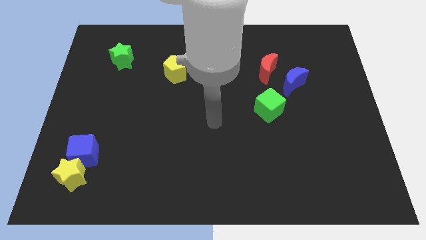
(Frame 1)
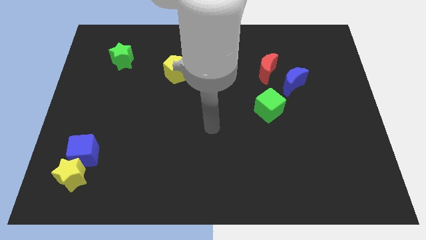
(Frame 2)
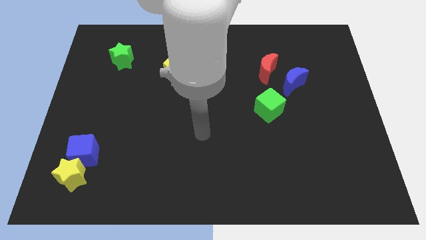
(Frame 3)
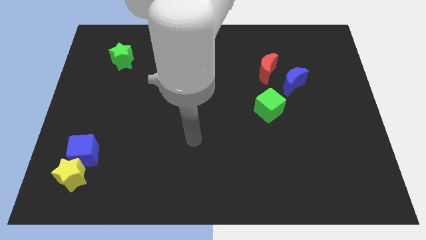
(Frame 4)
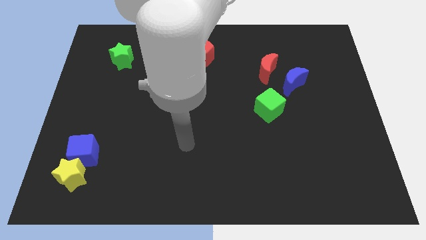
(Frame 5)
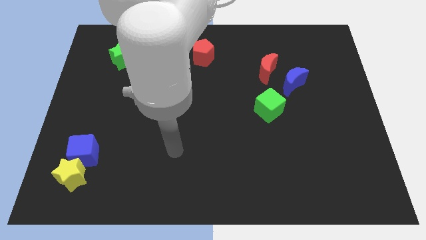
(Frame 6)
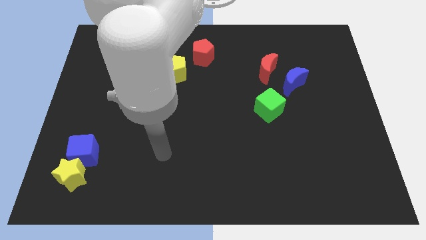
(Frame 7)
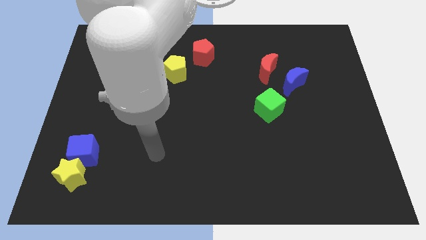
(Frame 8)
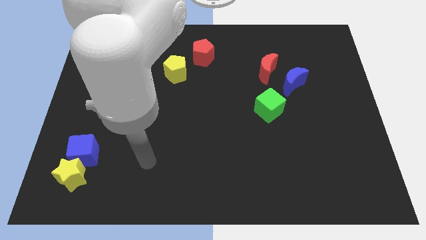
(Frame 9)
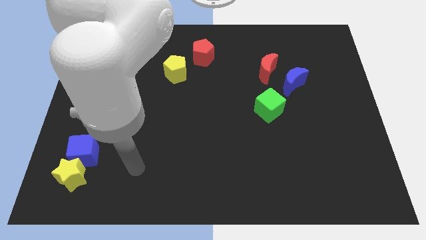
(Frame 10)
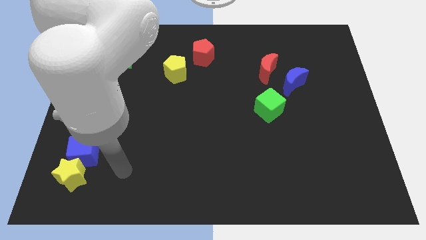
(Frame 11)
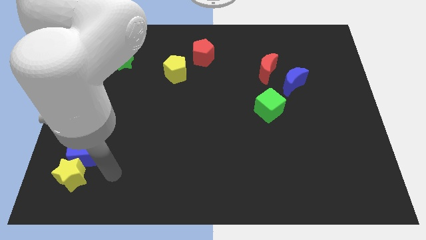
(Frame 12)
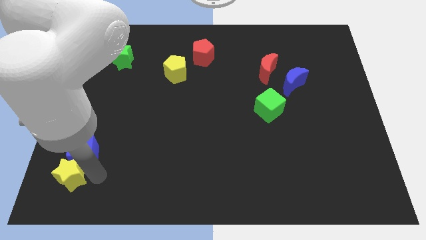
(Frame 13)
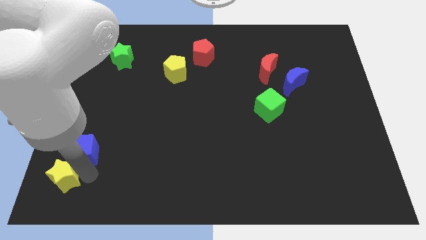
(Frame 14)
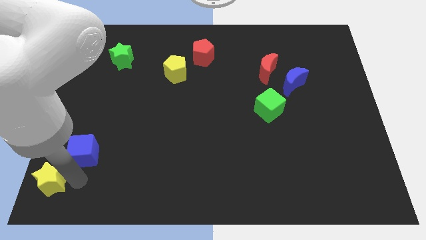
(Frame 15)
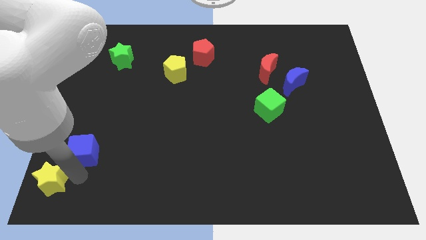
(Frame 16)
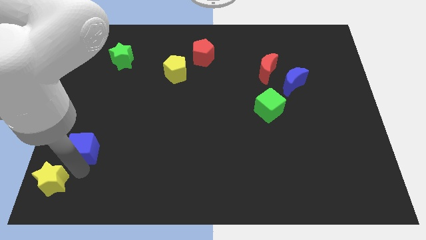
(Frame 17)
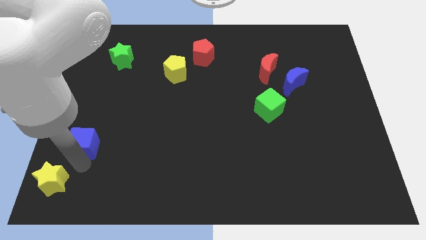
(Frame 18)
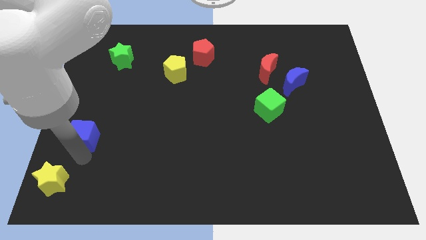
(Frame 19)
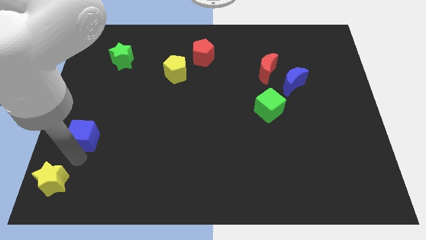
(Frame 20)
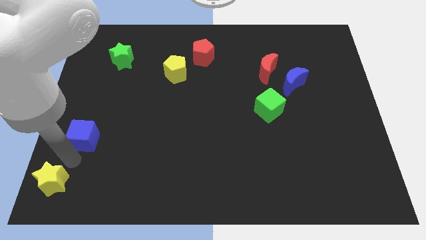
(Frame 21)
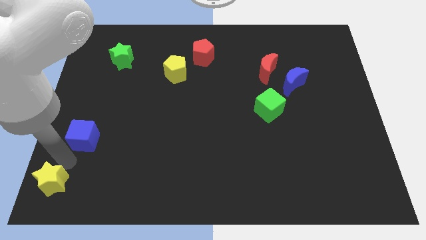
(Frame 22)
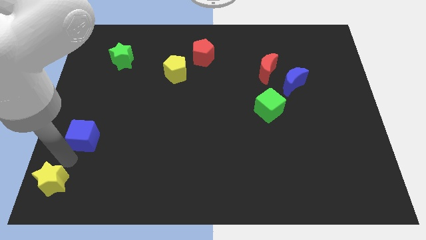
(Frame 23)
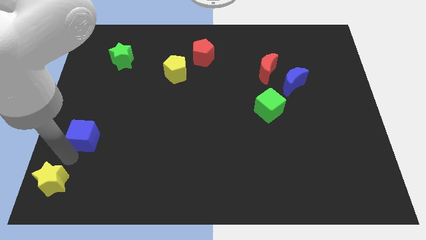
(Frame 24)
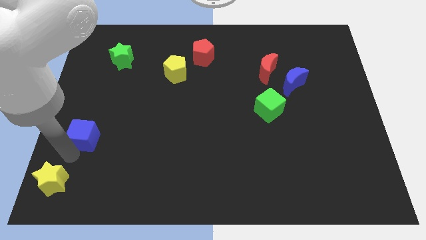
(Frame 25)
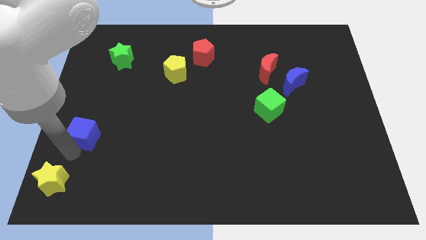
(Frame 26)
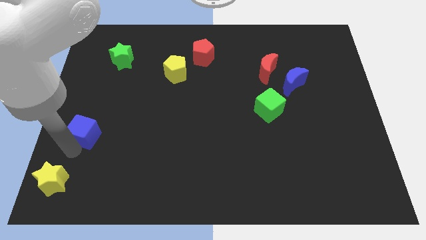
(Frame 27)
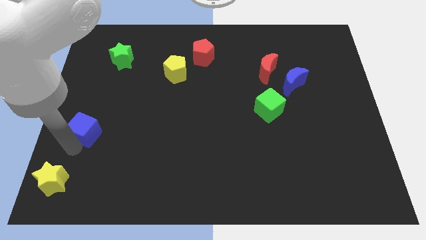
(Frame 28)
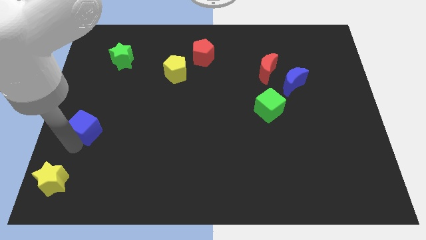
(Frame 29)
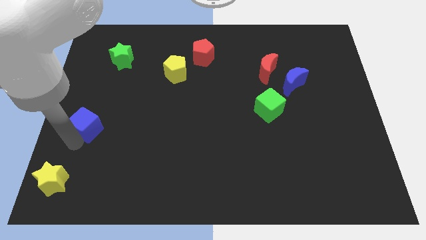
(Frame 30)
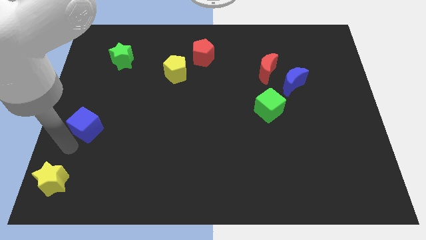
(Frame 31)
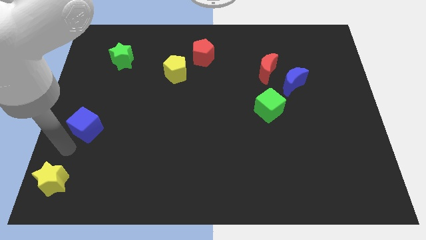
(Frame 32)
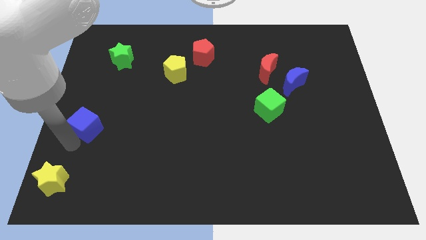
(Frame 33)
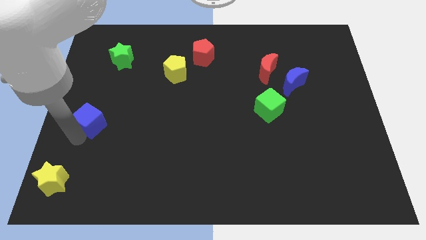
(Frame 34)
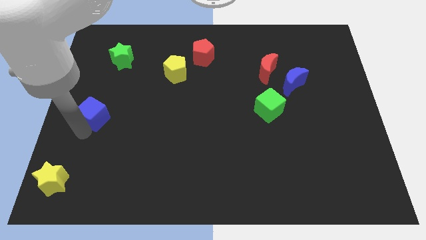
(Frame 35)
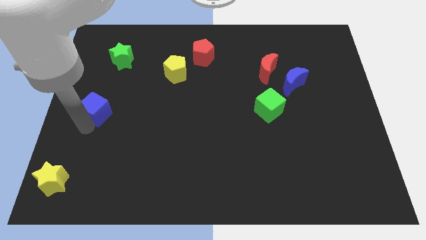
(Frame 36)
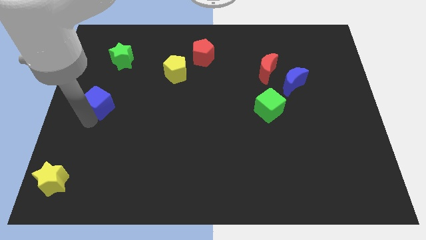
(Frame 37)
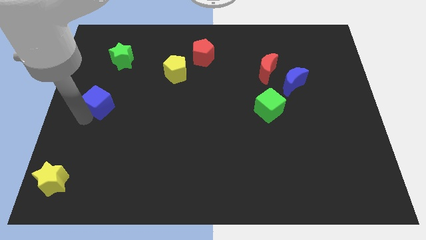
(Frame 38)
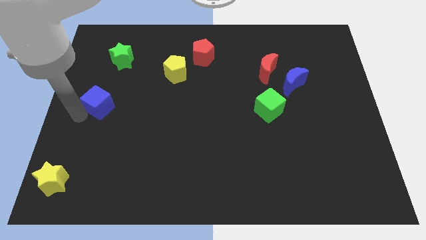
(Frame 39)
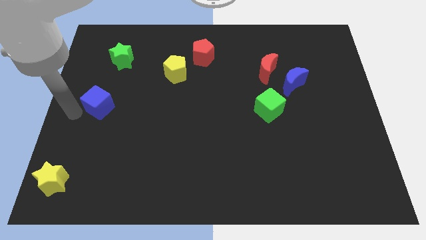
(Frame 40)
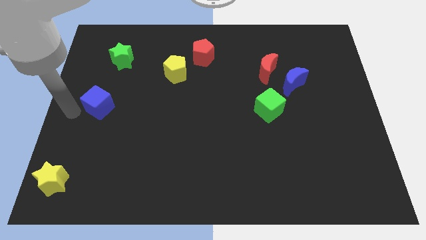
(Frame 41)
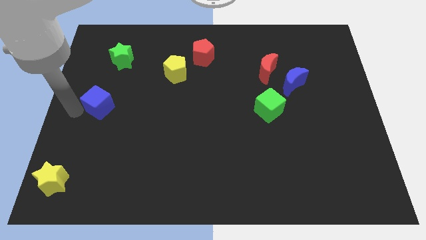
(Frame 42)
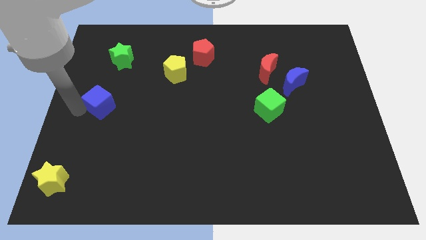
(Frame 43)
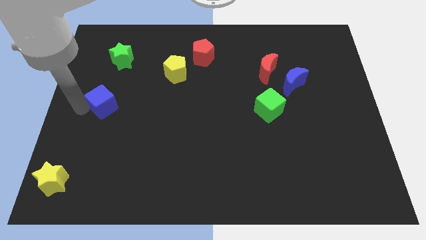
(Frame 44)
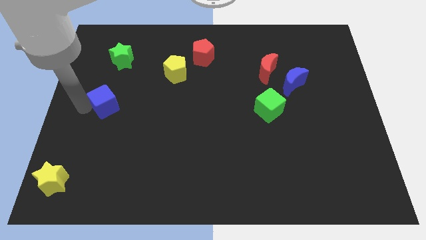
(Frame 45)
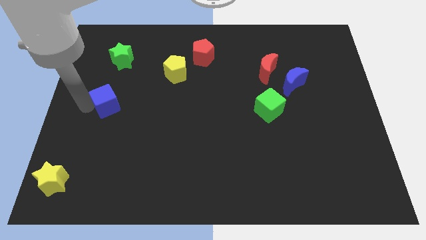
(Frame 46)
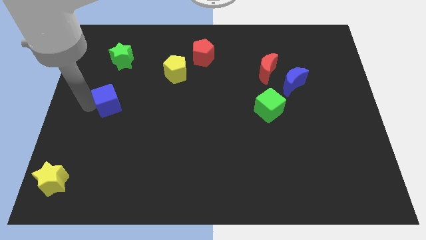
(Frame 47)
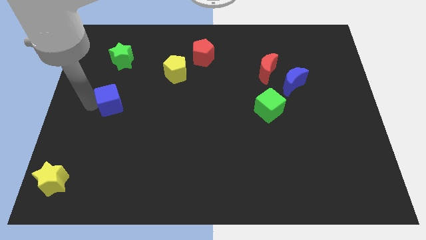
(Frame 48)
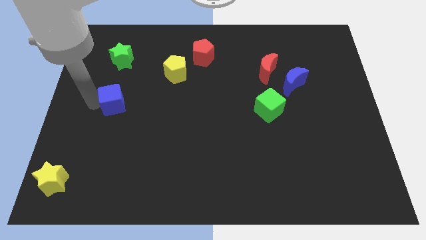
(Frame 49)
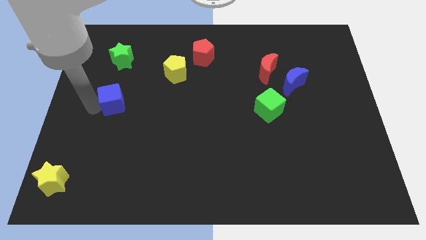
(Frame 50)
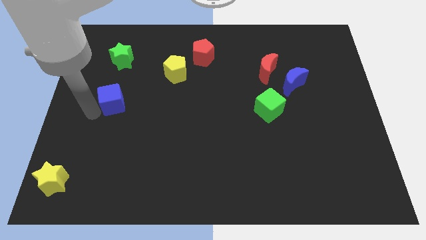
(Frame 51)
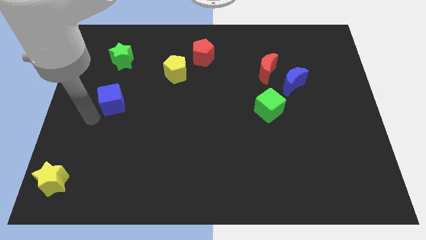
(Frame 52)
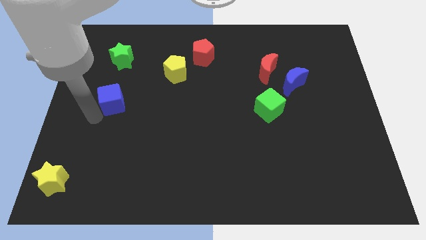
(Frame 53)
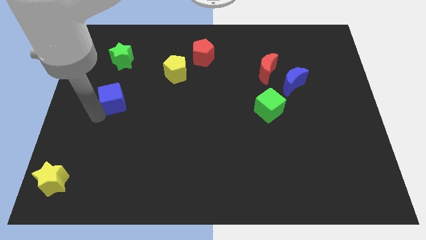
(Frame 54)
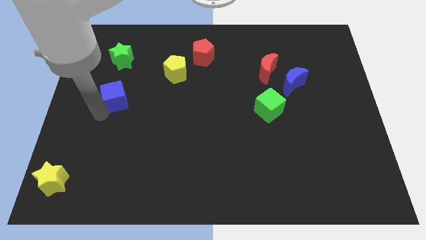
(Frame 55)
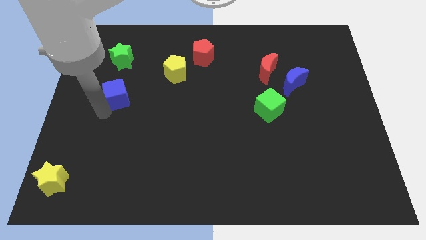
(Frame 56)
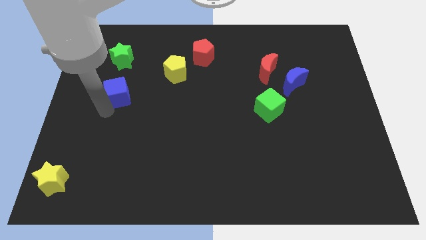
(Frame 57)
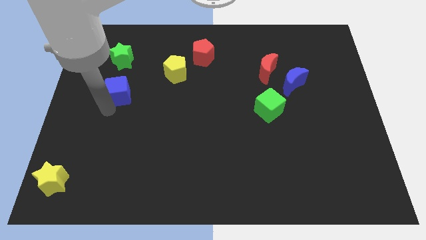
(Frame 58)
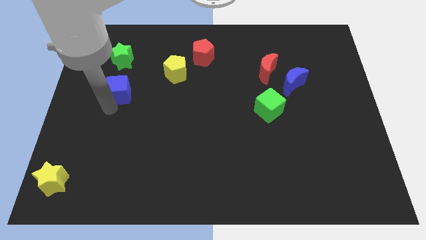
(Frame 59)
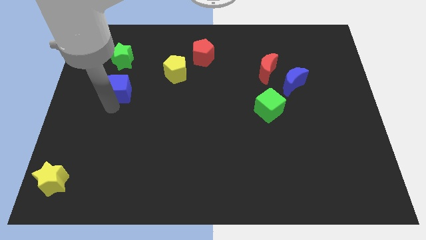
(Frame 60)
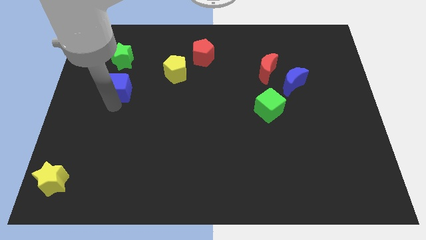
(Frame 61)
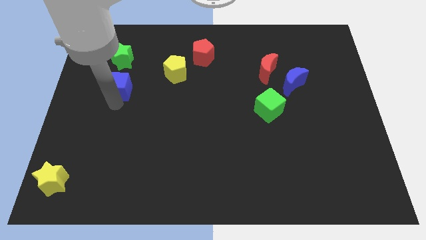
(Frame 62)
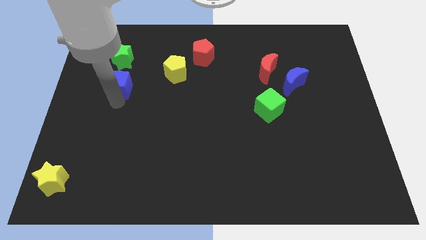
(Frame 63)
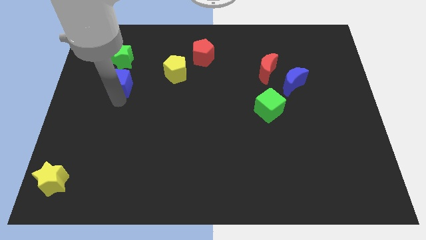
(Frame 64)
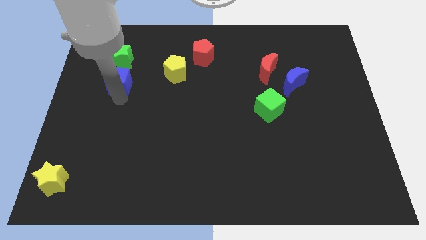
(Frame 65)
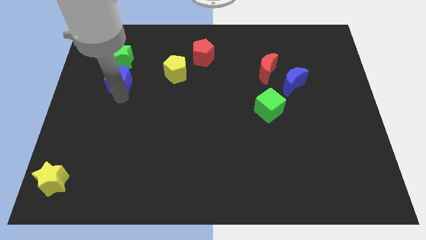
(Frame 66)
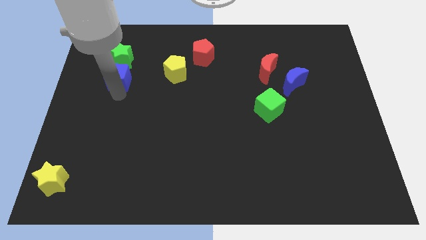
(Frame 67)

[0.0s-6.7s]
put the blue cube to the bottom right side of the green star

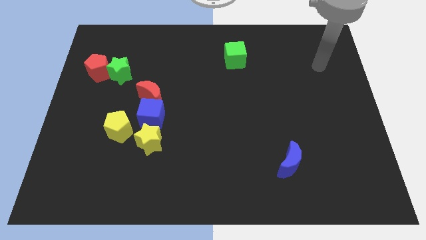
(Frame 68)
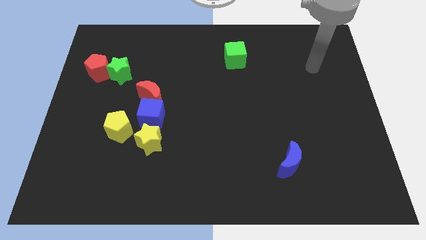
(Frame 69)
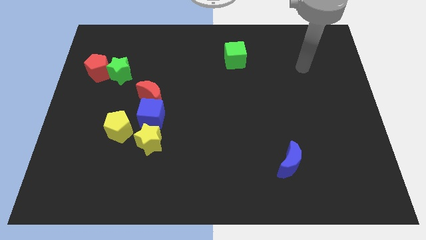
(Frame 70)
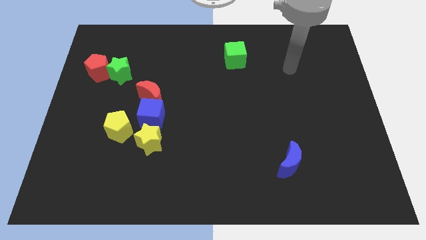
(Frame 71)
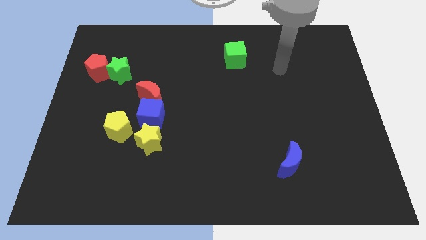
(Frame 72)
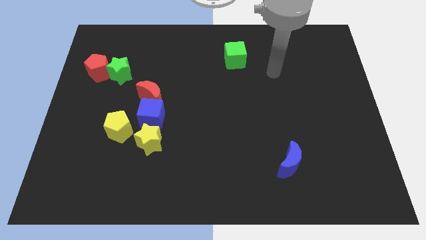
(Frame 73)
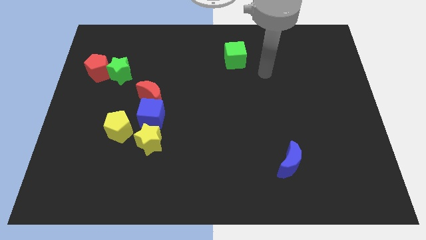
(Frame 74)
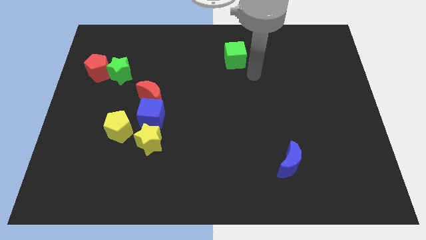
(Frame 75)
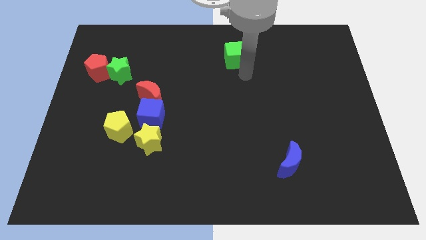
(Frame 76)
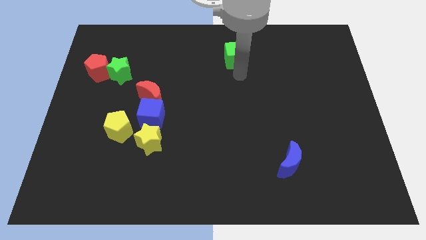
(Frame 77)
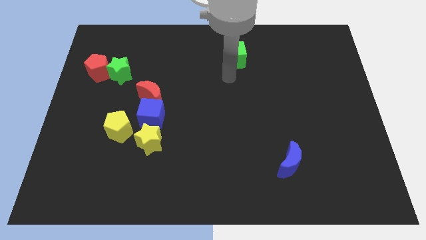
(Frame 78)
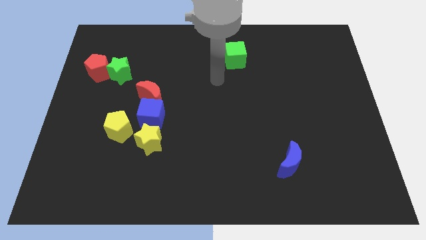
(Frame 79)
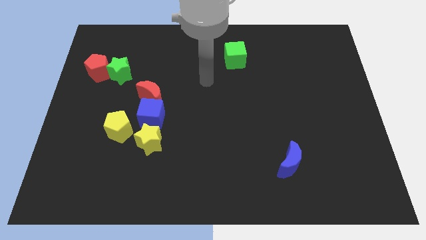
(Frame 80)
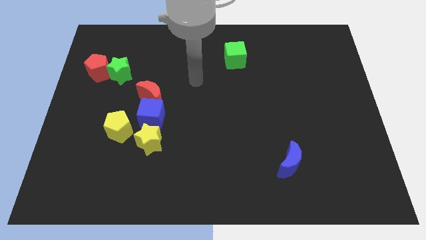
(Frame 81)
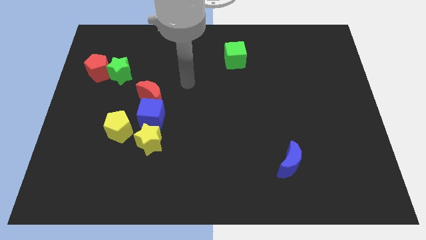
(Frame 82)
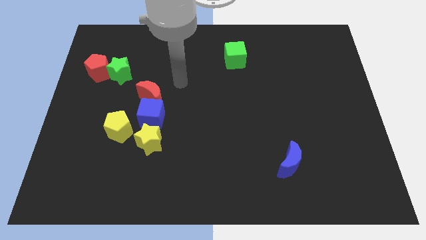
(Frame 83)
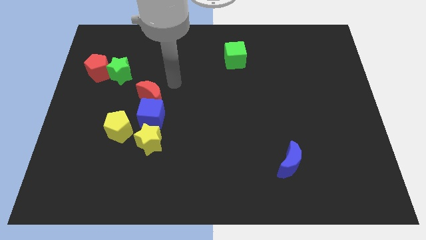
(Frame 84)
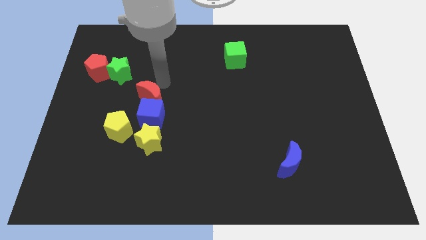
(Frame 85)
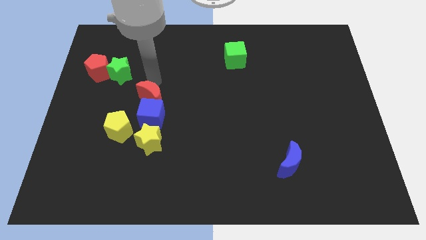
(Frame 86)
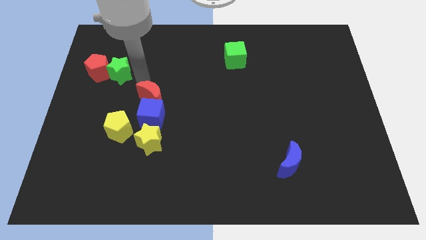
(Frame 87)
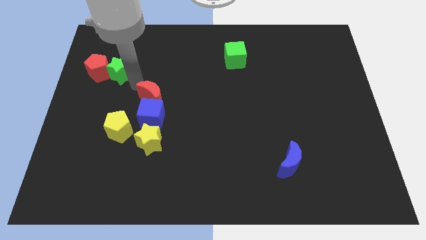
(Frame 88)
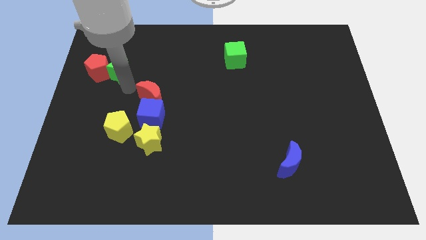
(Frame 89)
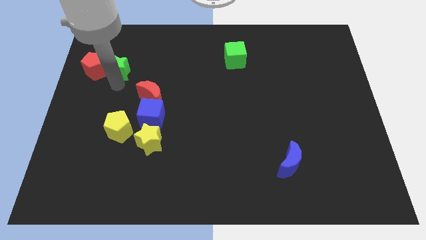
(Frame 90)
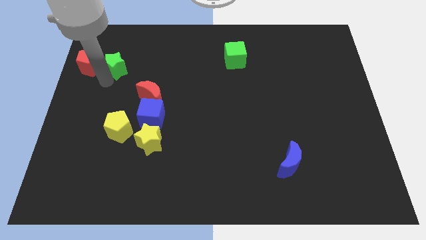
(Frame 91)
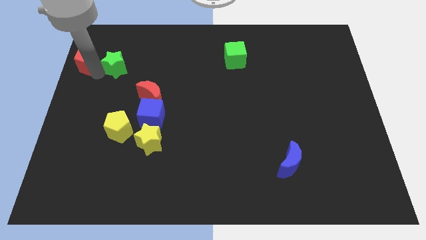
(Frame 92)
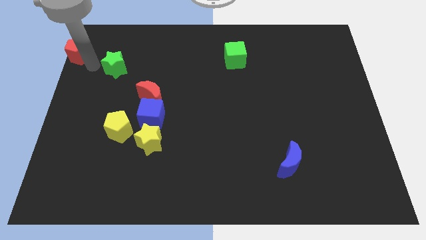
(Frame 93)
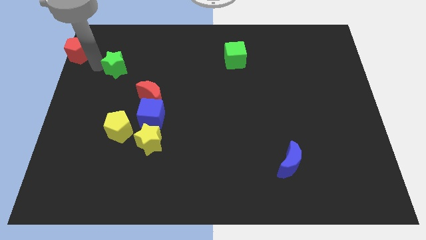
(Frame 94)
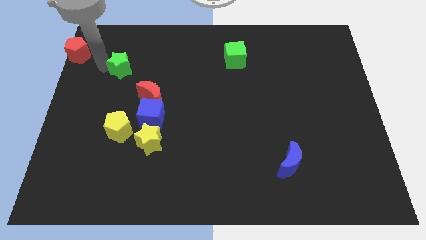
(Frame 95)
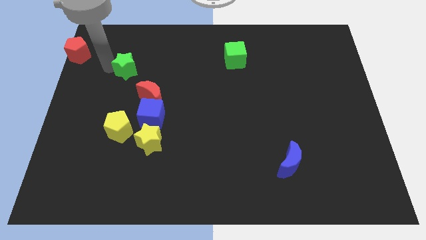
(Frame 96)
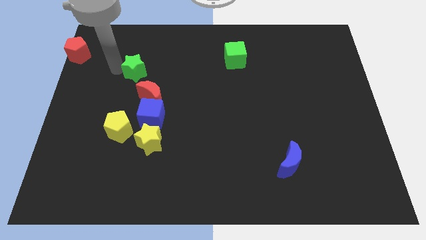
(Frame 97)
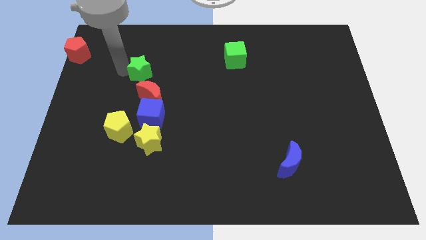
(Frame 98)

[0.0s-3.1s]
put the green star above the red moon
